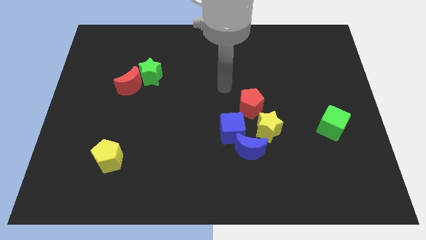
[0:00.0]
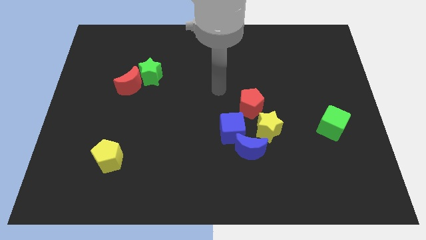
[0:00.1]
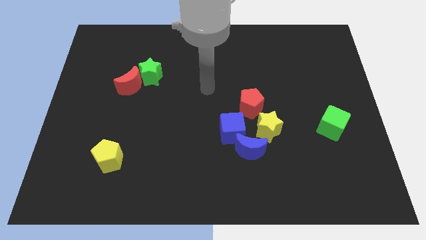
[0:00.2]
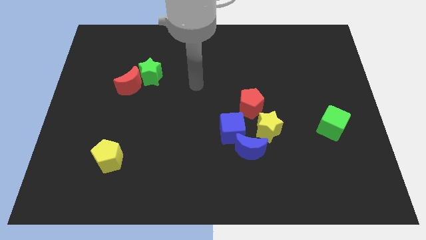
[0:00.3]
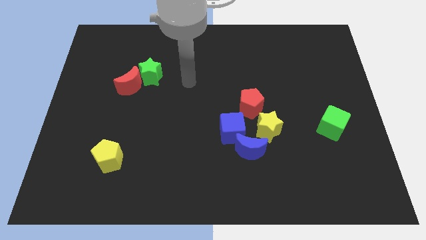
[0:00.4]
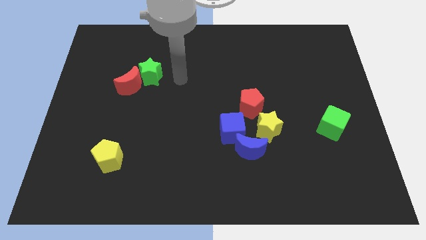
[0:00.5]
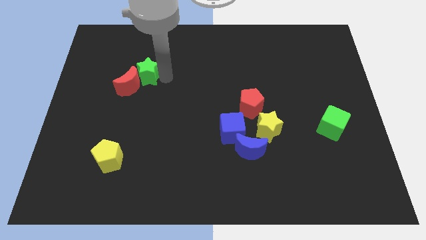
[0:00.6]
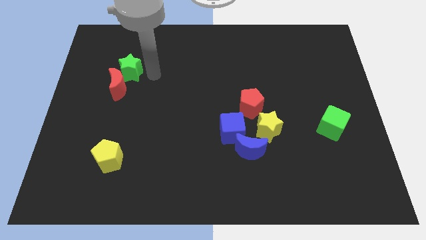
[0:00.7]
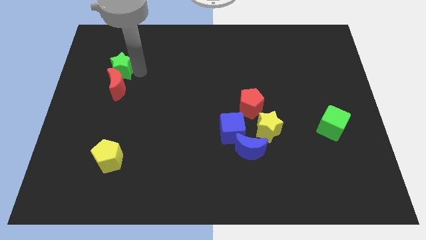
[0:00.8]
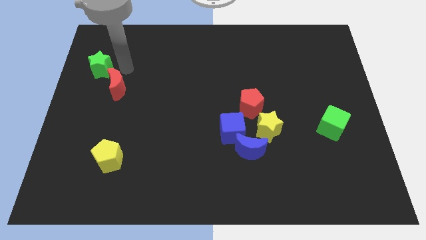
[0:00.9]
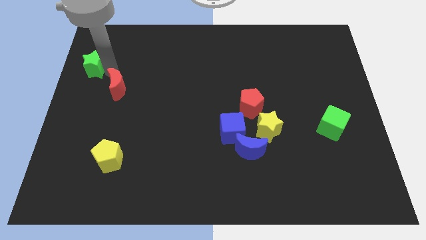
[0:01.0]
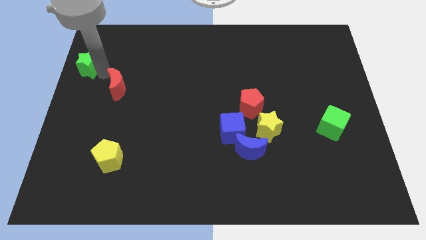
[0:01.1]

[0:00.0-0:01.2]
pull the red moon apart from the green star

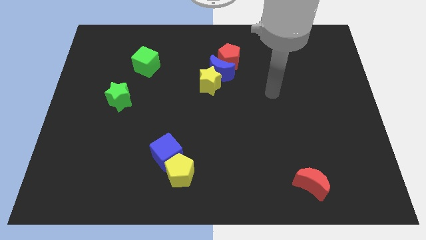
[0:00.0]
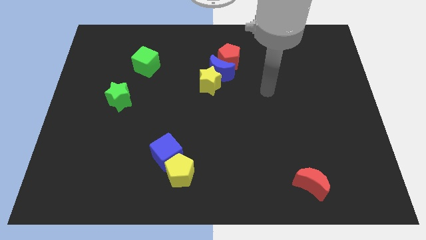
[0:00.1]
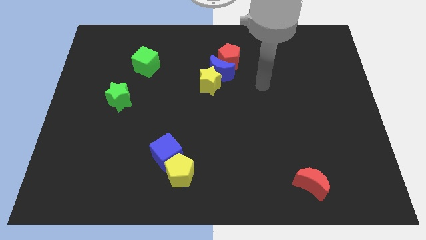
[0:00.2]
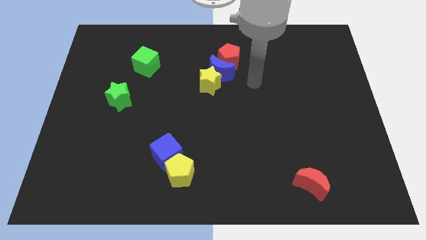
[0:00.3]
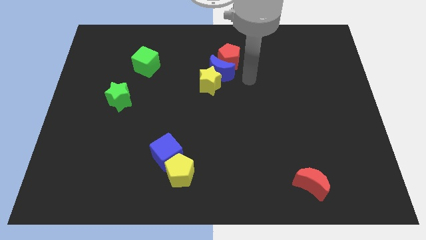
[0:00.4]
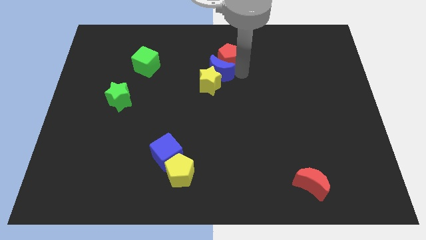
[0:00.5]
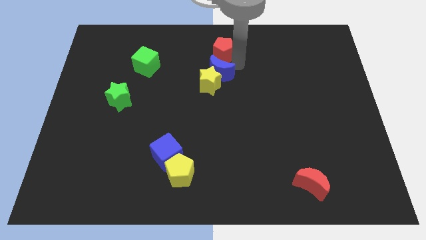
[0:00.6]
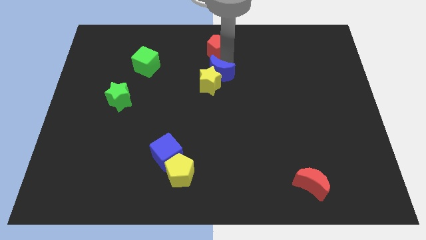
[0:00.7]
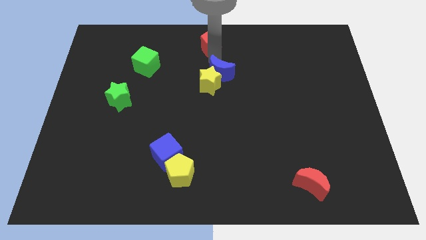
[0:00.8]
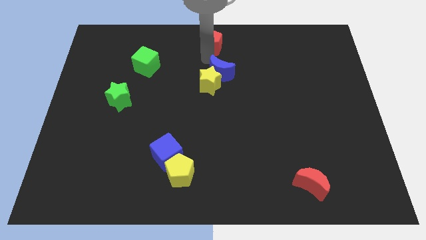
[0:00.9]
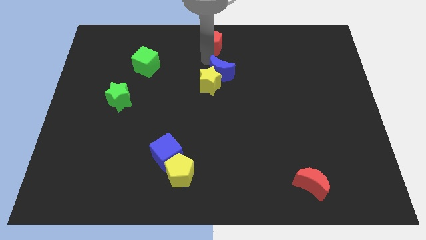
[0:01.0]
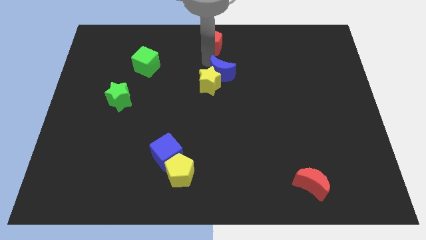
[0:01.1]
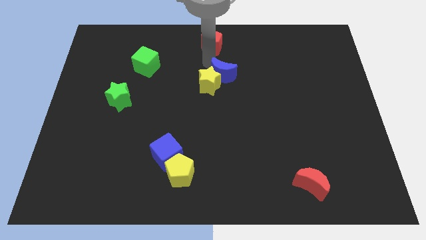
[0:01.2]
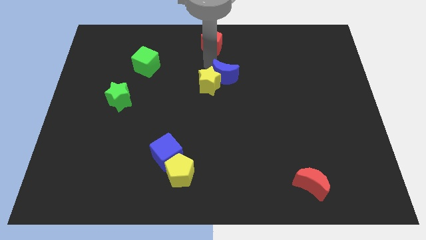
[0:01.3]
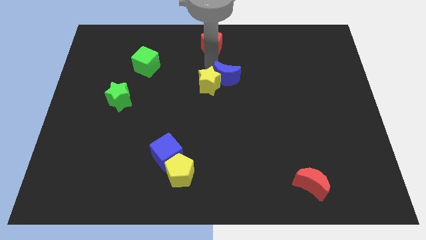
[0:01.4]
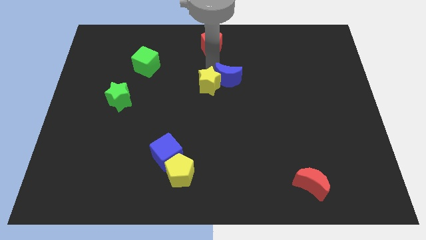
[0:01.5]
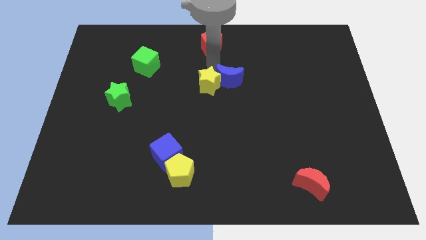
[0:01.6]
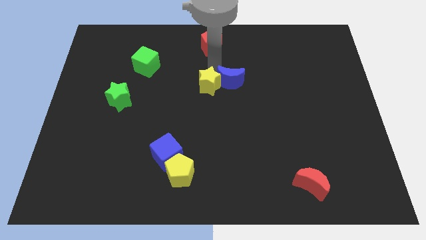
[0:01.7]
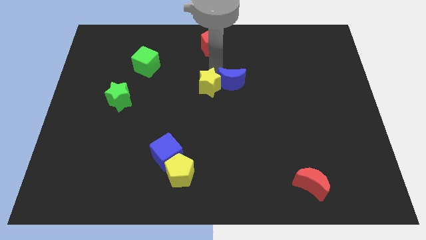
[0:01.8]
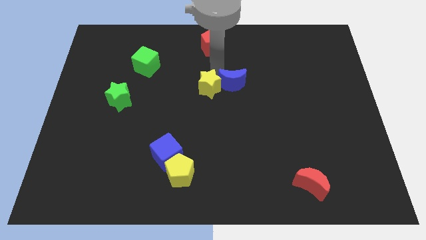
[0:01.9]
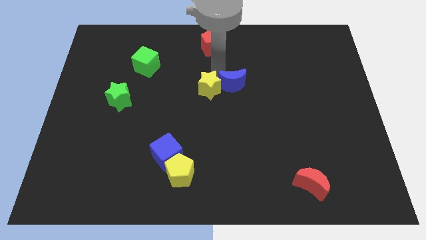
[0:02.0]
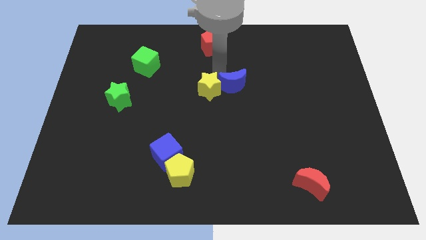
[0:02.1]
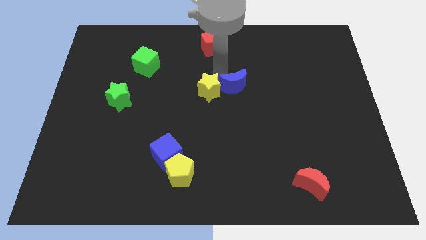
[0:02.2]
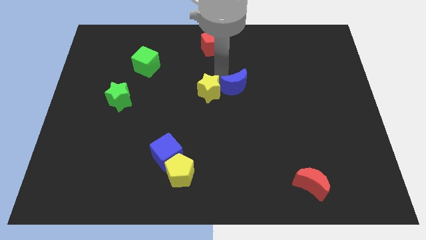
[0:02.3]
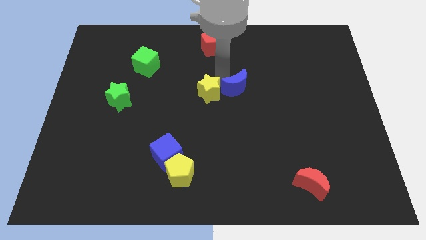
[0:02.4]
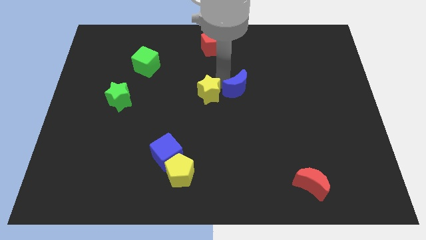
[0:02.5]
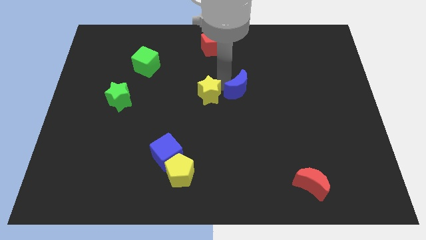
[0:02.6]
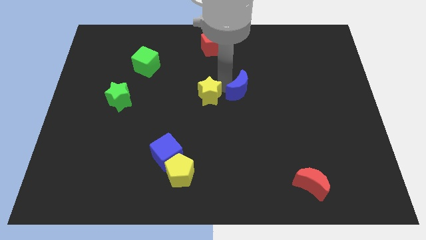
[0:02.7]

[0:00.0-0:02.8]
pull the blue moon apart from the yellow star and red pentagon

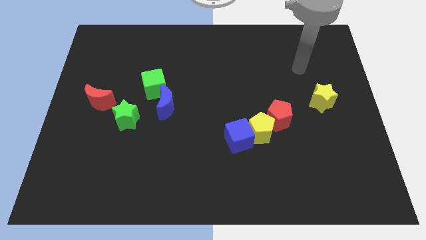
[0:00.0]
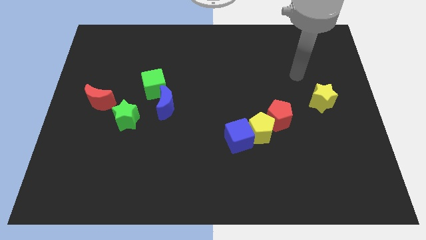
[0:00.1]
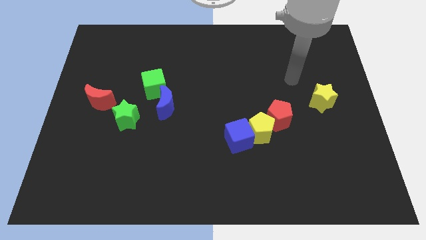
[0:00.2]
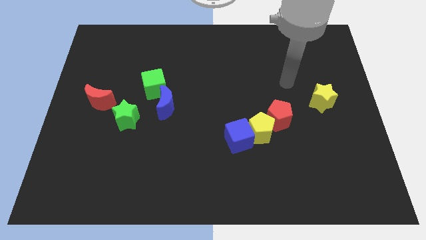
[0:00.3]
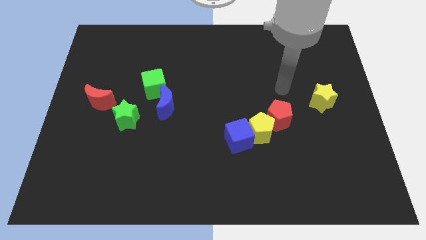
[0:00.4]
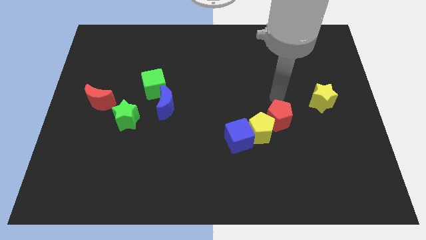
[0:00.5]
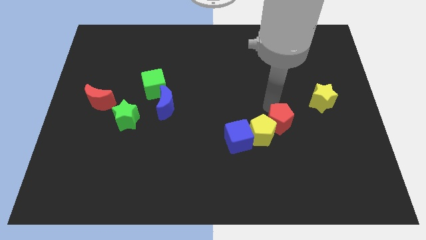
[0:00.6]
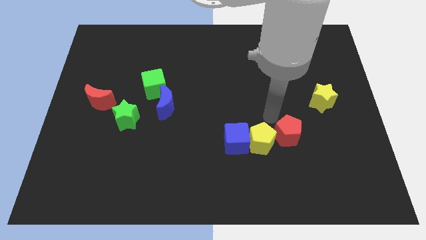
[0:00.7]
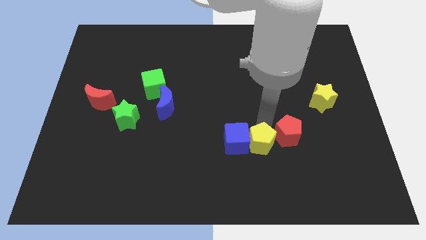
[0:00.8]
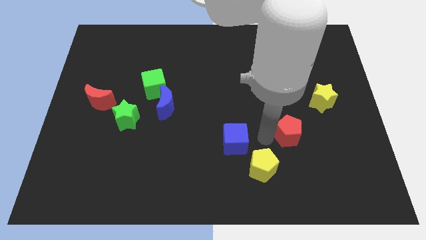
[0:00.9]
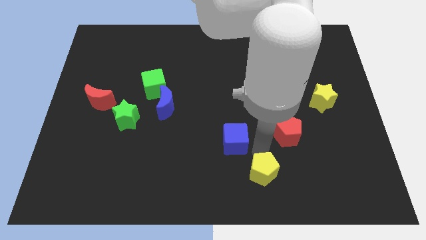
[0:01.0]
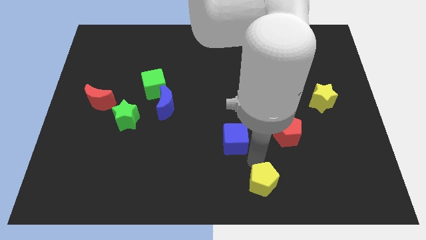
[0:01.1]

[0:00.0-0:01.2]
move the blue cube away from the yellow pentagon

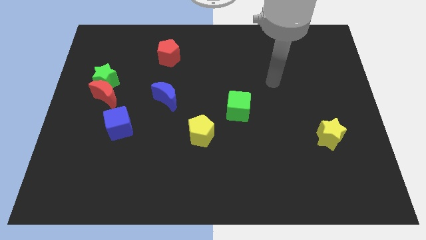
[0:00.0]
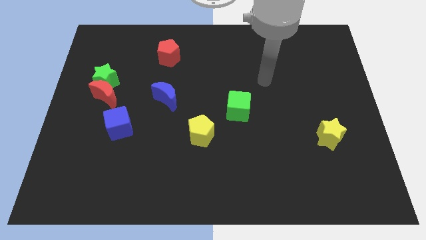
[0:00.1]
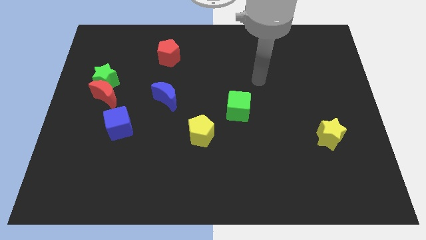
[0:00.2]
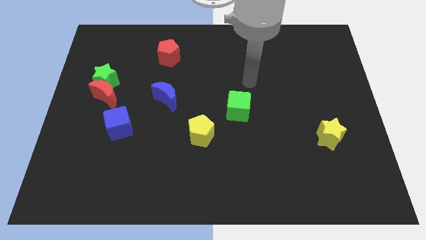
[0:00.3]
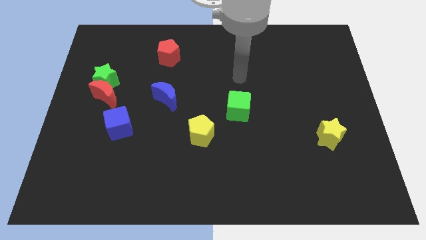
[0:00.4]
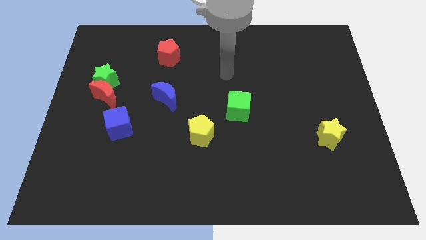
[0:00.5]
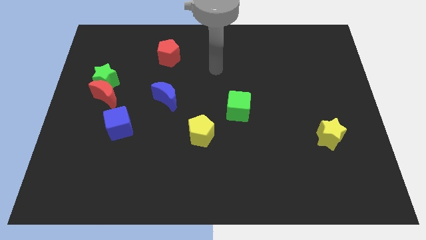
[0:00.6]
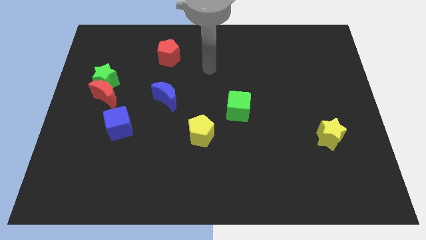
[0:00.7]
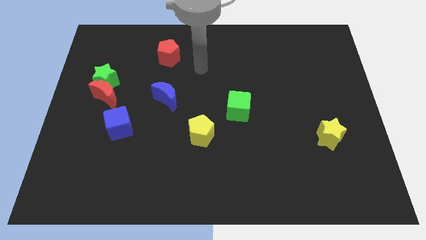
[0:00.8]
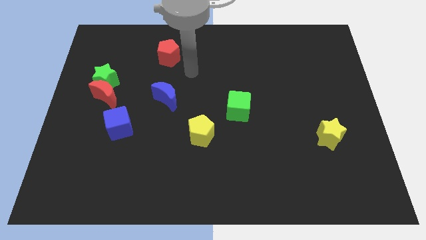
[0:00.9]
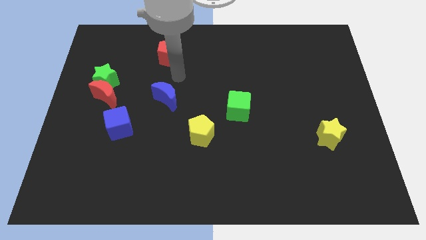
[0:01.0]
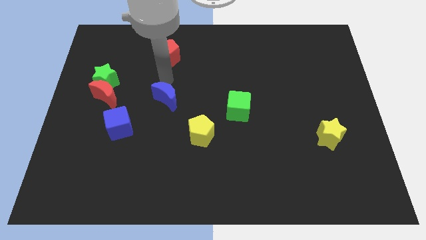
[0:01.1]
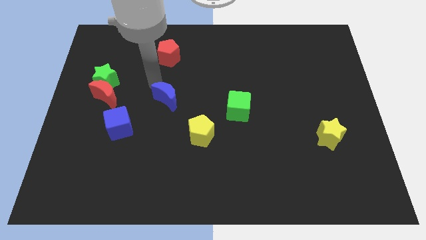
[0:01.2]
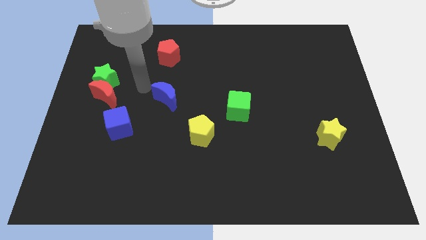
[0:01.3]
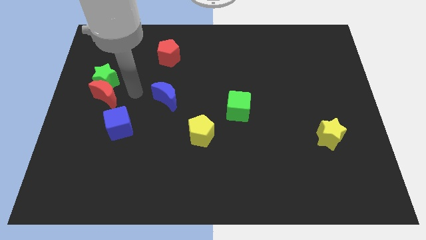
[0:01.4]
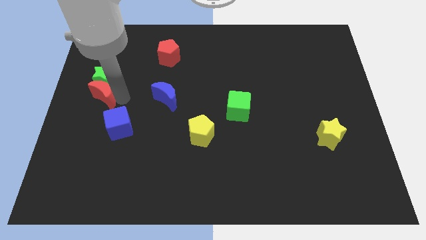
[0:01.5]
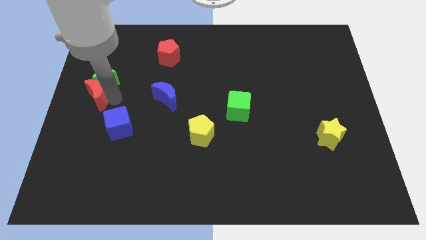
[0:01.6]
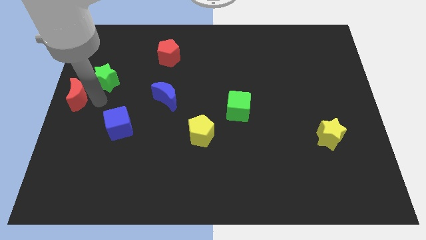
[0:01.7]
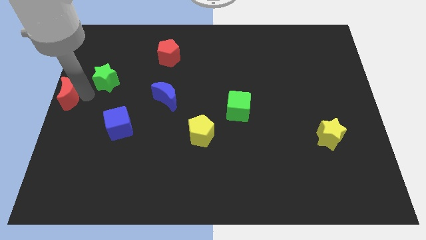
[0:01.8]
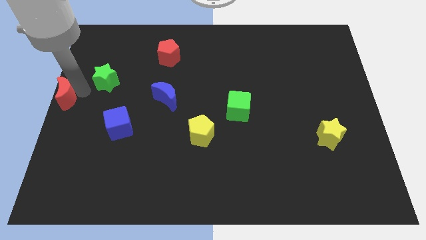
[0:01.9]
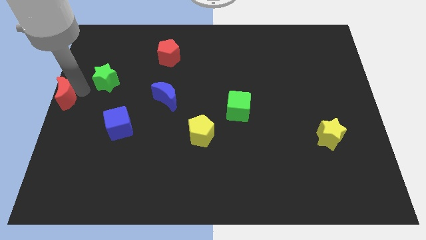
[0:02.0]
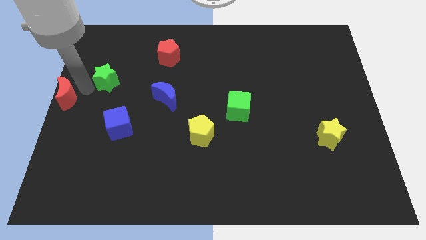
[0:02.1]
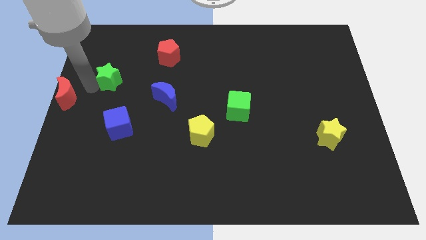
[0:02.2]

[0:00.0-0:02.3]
move the green star away from the red moon

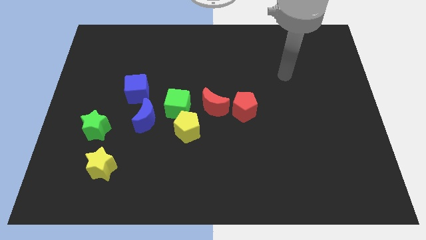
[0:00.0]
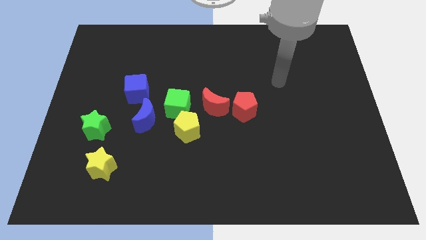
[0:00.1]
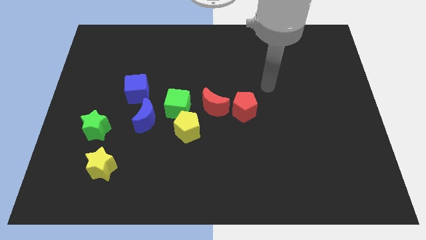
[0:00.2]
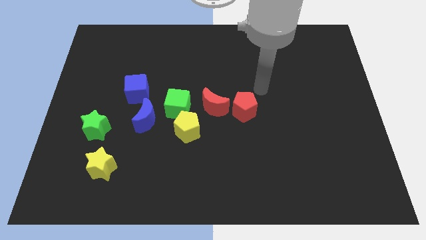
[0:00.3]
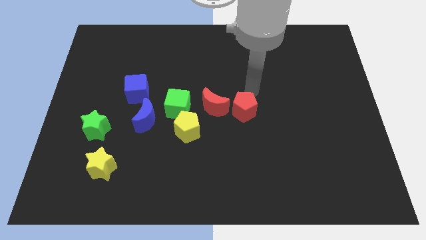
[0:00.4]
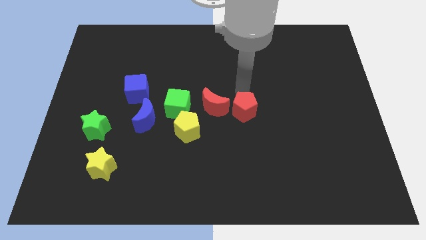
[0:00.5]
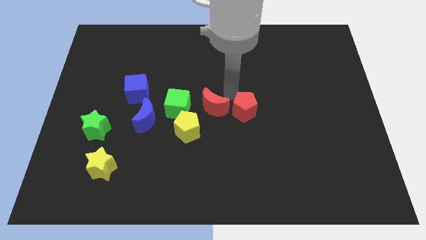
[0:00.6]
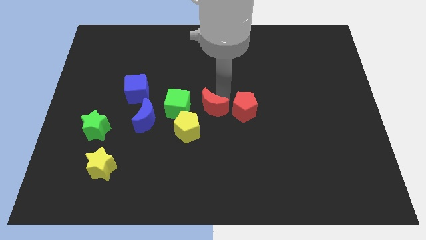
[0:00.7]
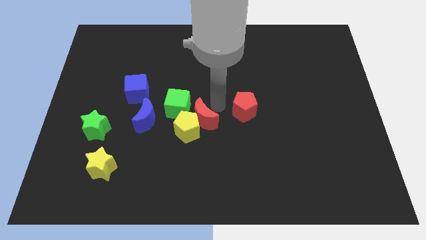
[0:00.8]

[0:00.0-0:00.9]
pull the red pentagon apart from the red moon

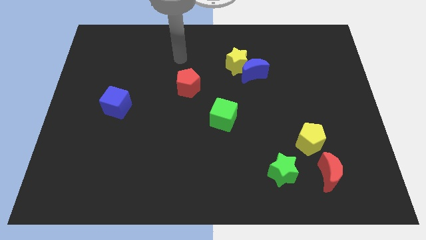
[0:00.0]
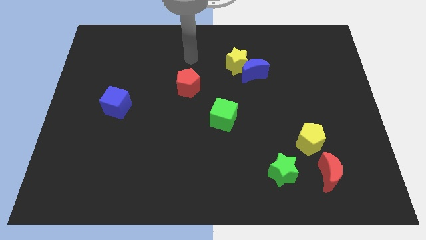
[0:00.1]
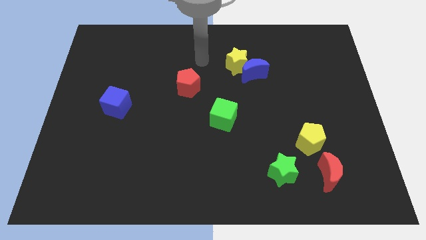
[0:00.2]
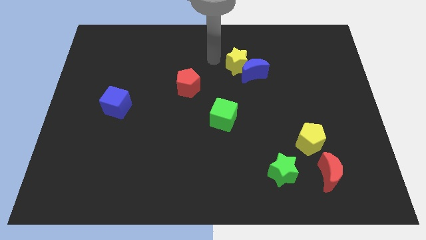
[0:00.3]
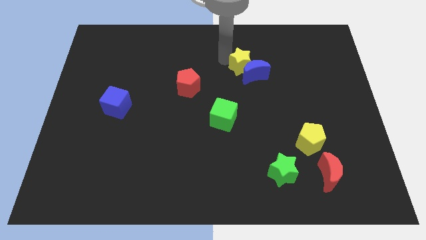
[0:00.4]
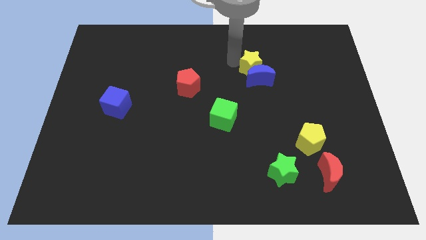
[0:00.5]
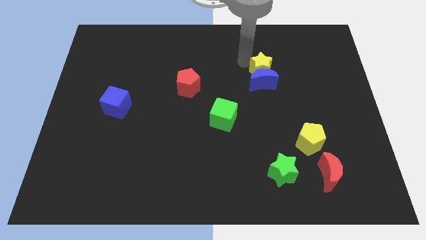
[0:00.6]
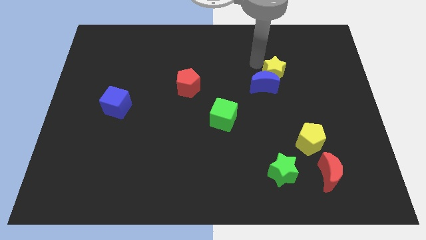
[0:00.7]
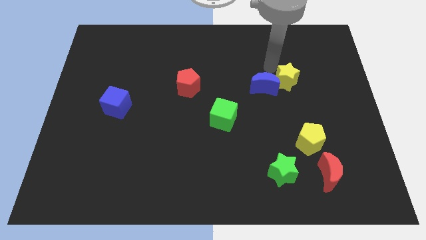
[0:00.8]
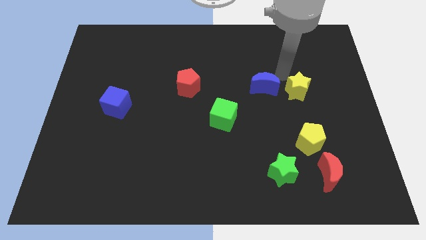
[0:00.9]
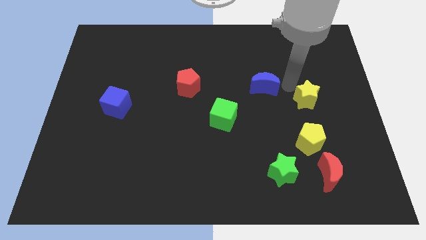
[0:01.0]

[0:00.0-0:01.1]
move the blue moon away from the yellow star
